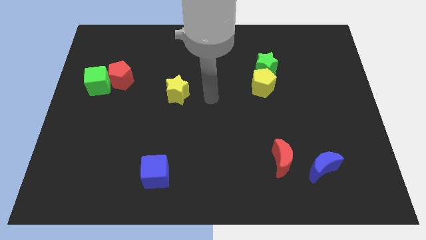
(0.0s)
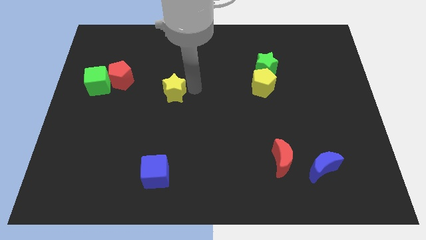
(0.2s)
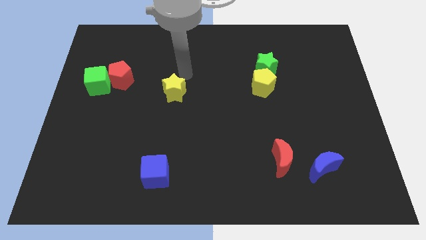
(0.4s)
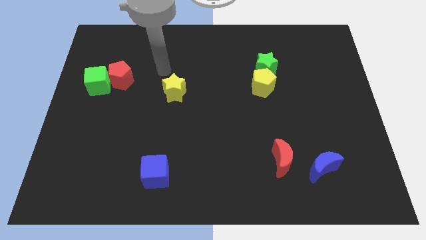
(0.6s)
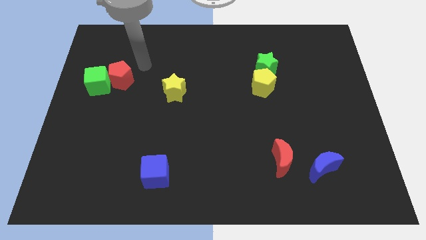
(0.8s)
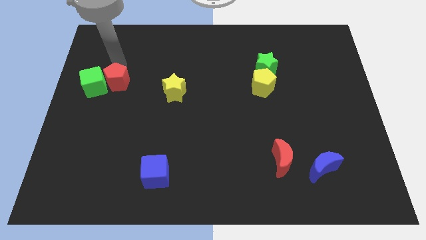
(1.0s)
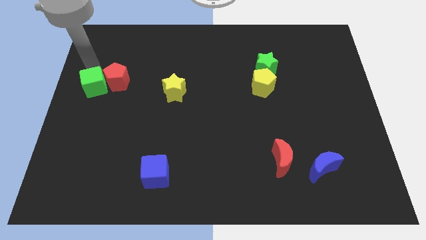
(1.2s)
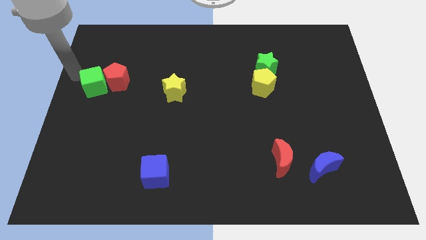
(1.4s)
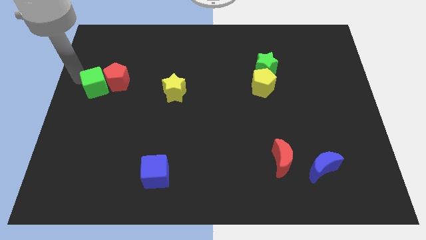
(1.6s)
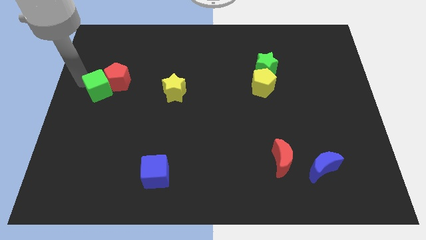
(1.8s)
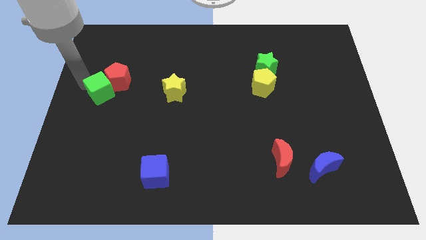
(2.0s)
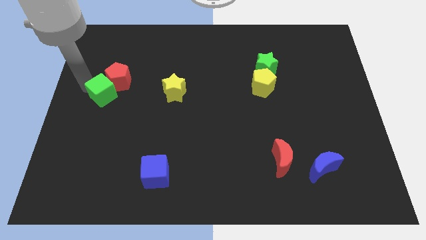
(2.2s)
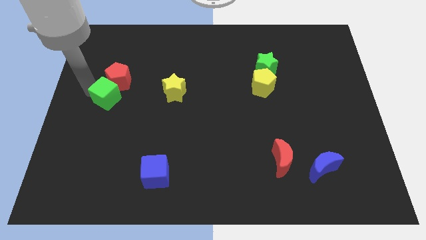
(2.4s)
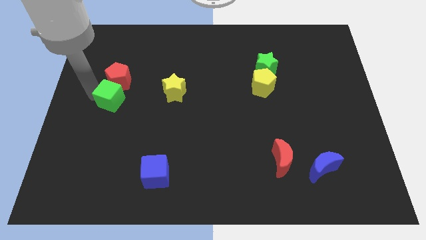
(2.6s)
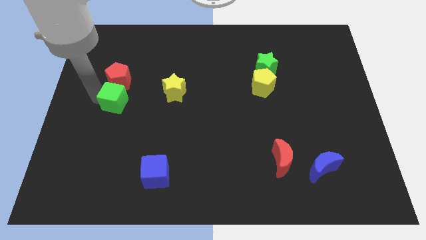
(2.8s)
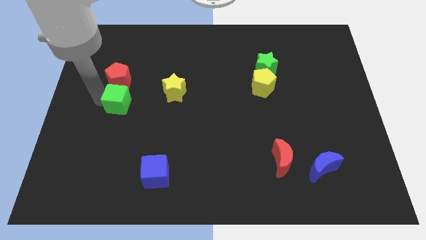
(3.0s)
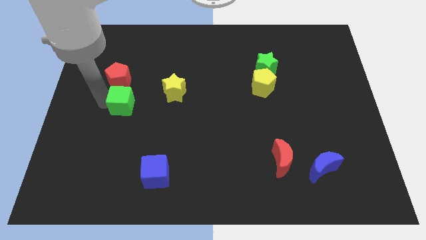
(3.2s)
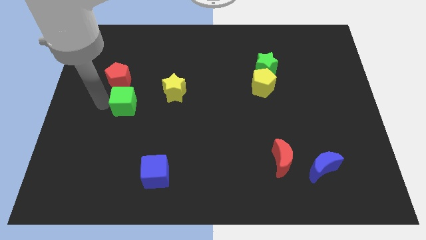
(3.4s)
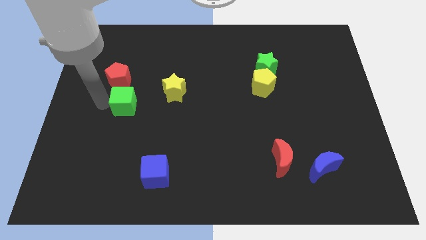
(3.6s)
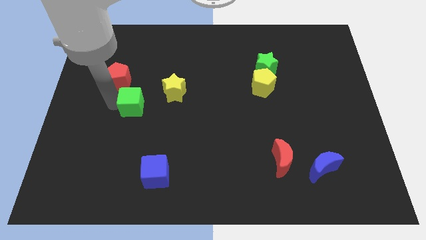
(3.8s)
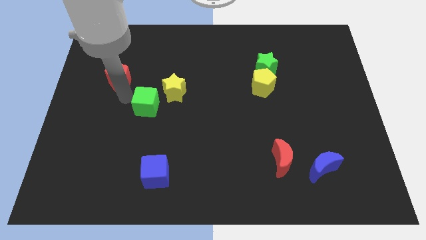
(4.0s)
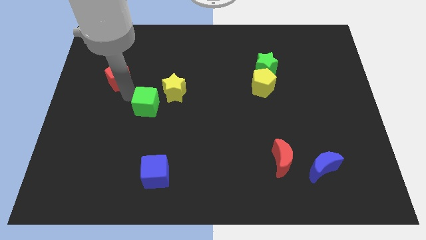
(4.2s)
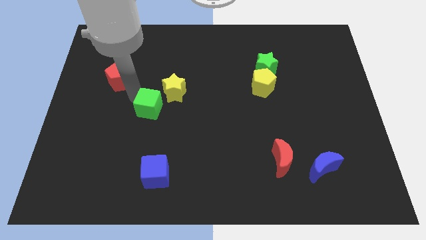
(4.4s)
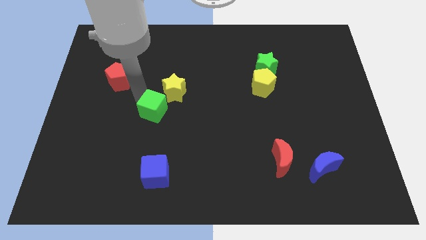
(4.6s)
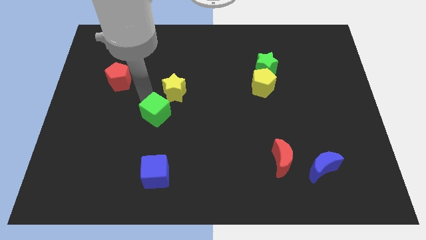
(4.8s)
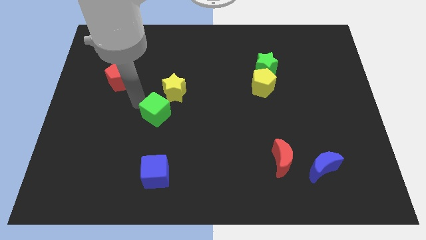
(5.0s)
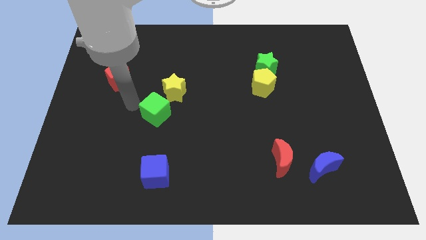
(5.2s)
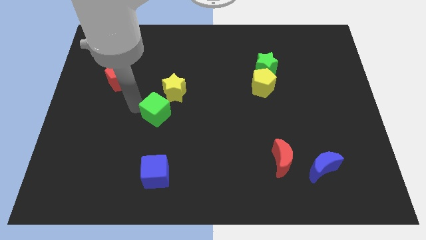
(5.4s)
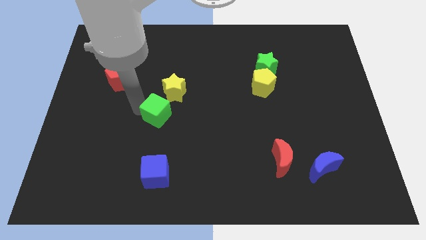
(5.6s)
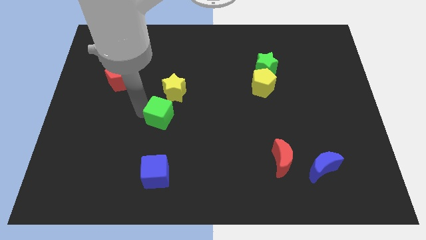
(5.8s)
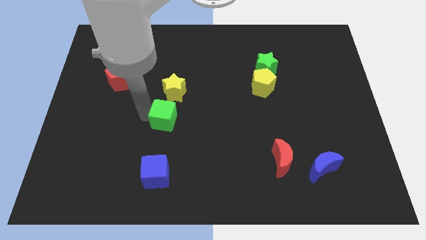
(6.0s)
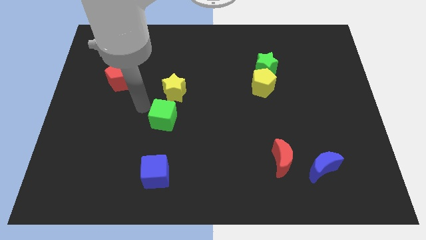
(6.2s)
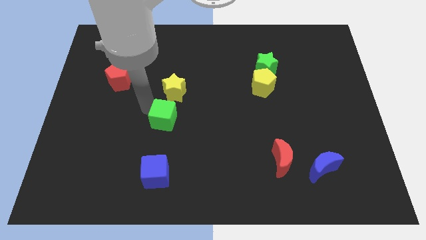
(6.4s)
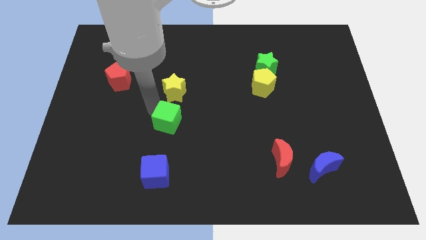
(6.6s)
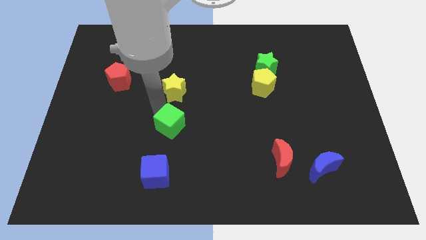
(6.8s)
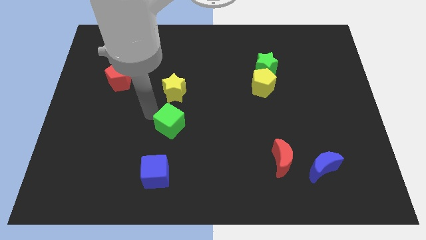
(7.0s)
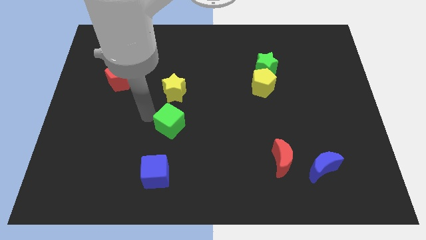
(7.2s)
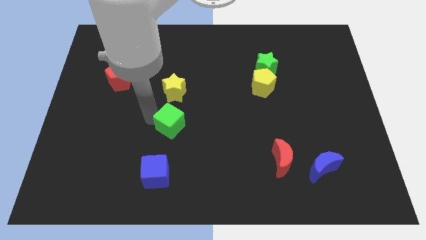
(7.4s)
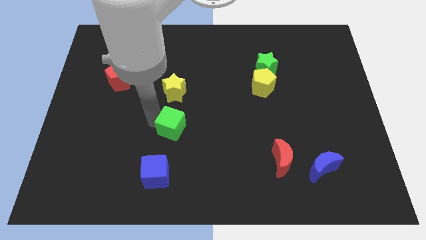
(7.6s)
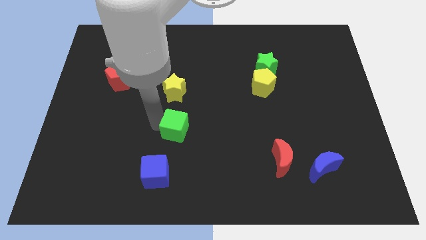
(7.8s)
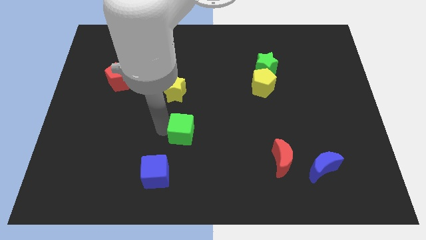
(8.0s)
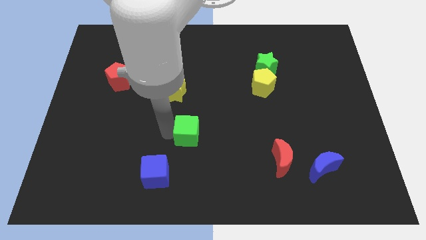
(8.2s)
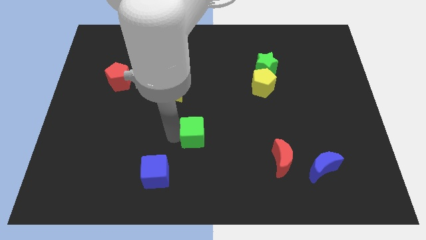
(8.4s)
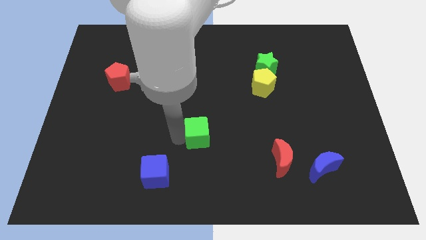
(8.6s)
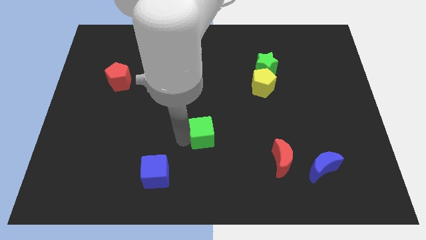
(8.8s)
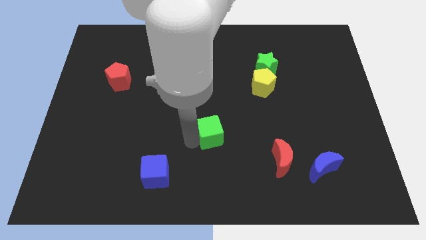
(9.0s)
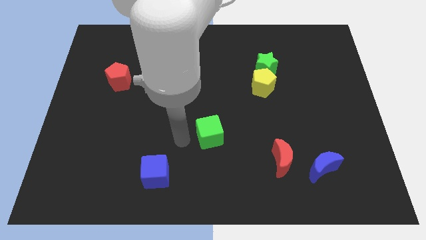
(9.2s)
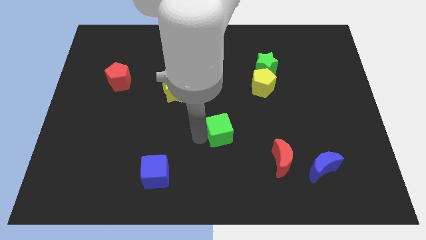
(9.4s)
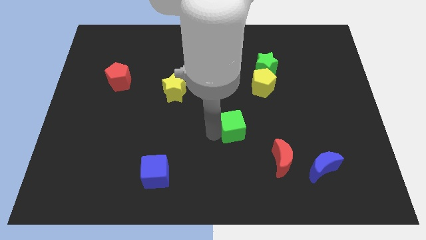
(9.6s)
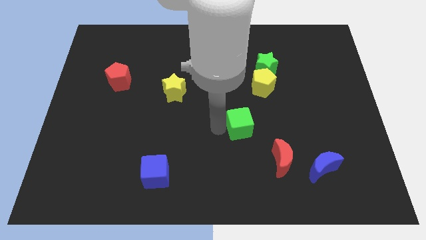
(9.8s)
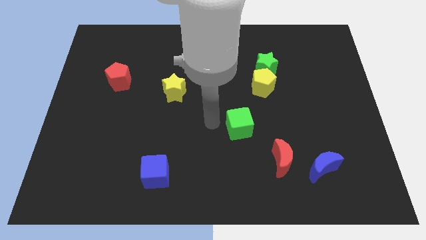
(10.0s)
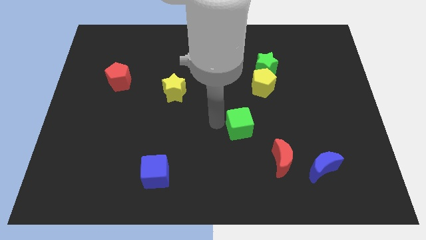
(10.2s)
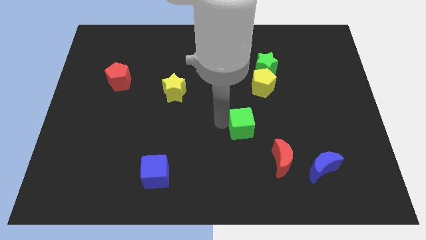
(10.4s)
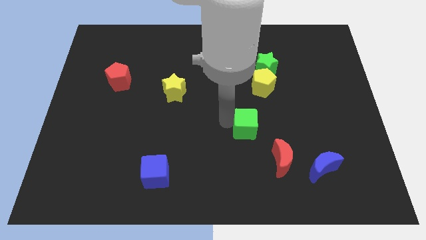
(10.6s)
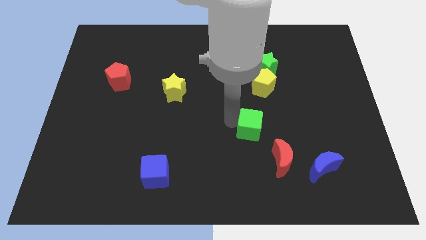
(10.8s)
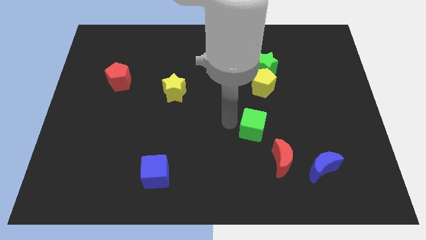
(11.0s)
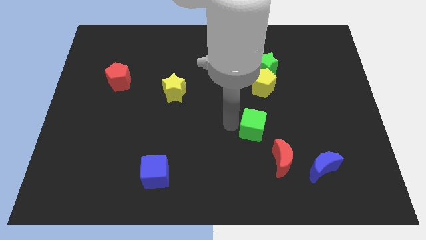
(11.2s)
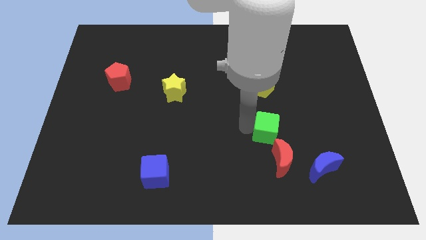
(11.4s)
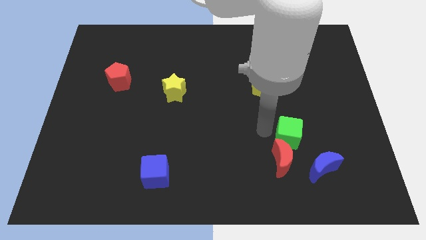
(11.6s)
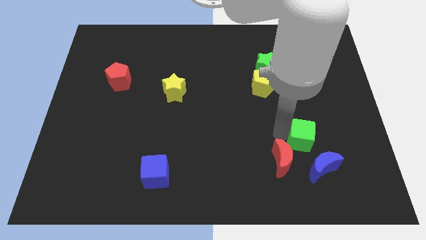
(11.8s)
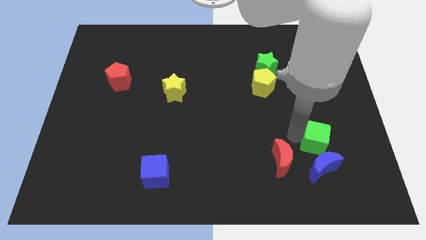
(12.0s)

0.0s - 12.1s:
move the green cube to the right of the red moon

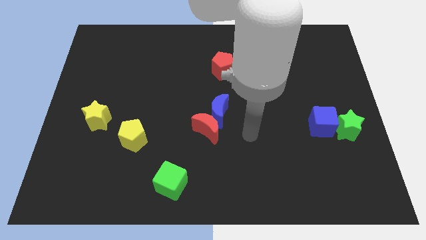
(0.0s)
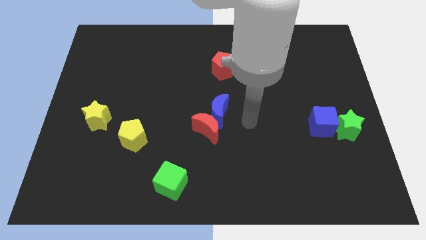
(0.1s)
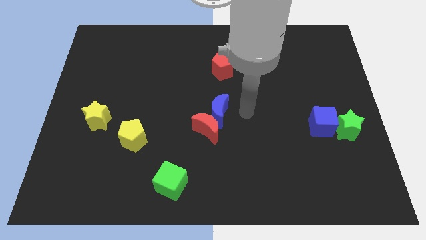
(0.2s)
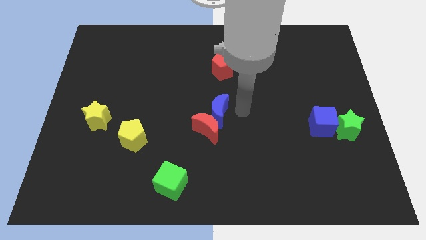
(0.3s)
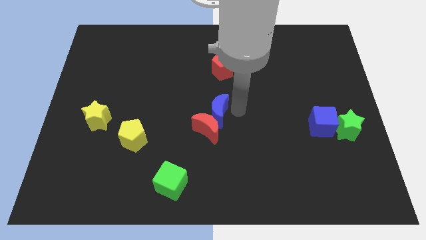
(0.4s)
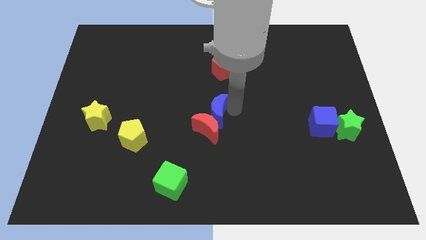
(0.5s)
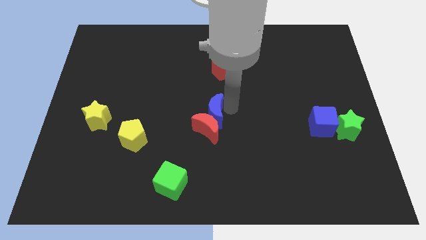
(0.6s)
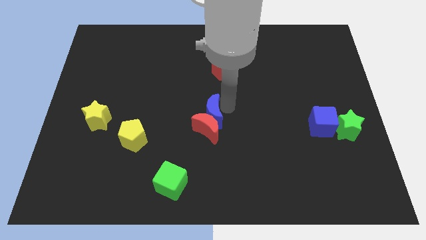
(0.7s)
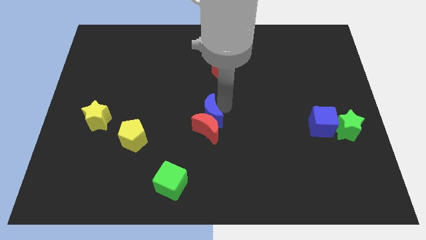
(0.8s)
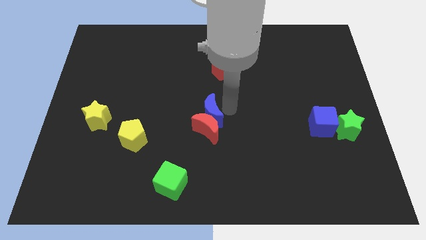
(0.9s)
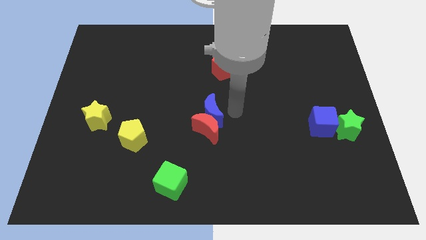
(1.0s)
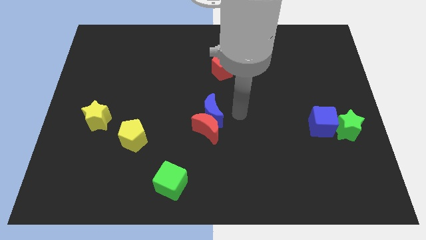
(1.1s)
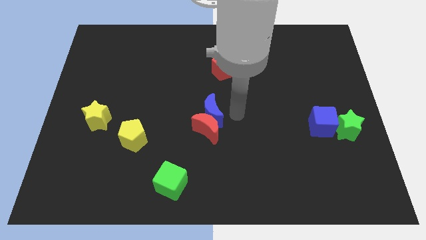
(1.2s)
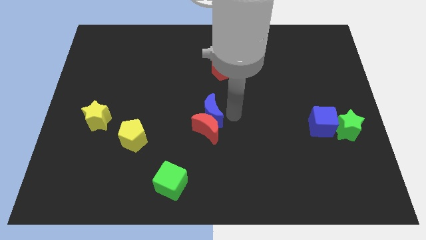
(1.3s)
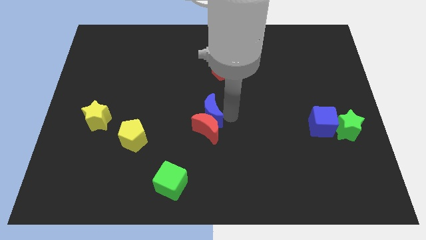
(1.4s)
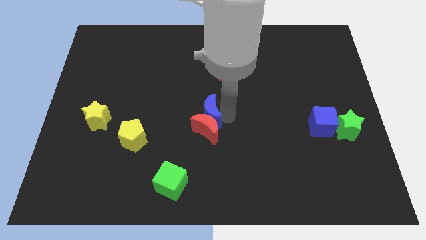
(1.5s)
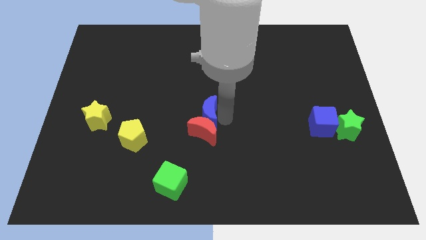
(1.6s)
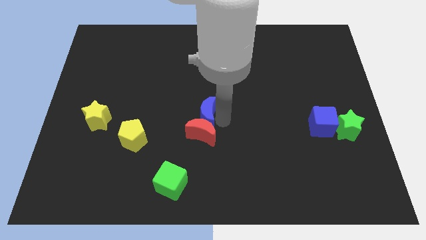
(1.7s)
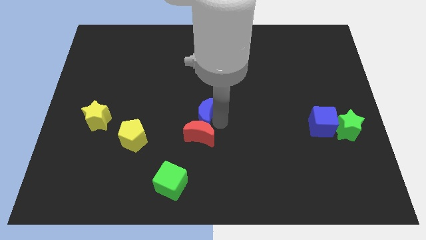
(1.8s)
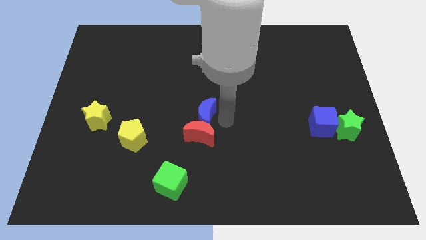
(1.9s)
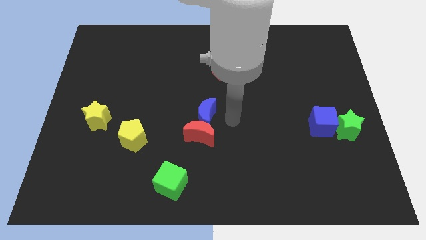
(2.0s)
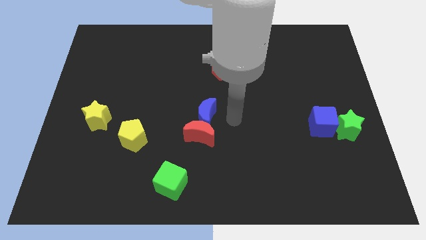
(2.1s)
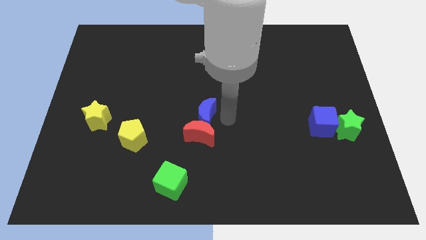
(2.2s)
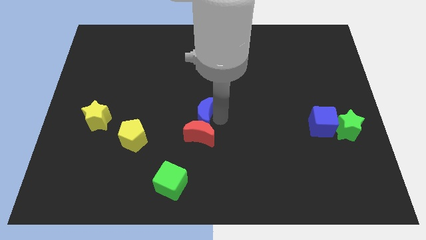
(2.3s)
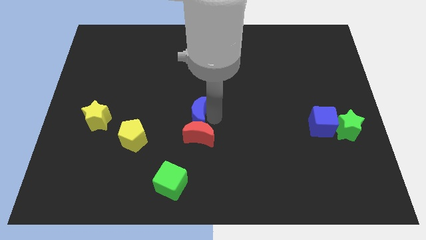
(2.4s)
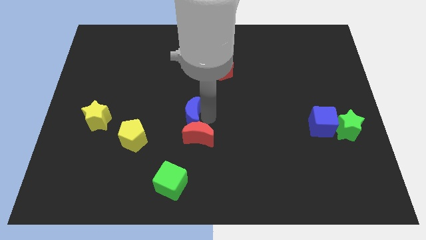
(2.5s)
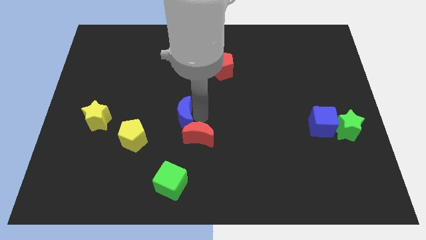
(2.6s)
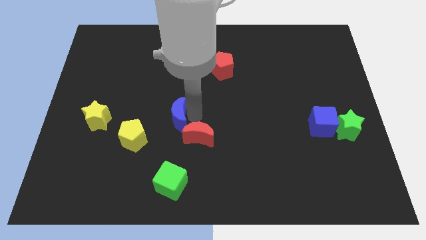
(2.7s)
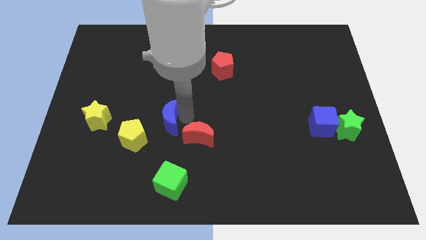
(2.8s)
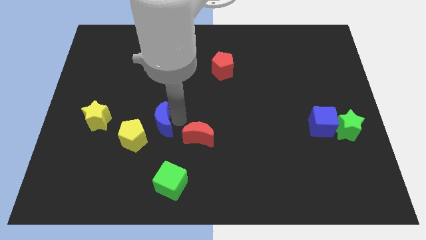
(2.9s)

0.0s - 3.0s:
put the blue moon just right of the yellow star
